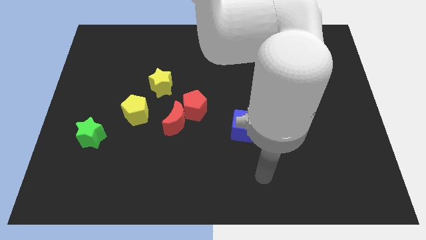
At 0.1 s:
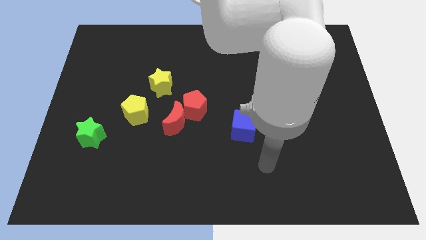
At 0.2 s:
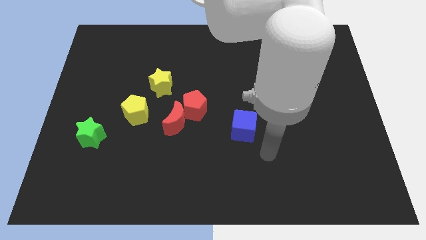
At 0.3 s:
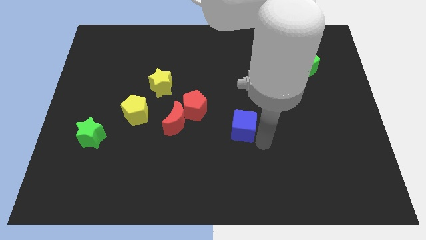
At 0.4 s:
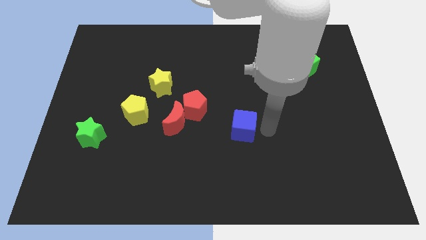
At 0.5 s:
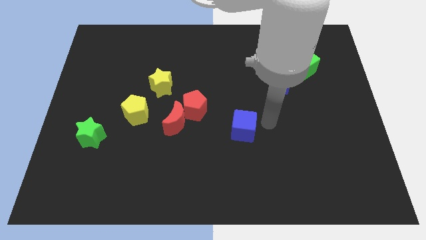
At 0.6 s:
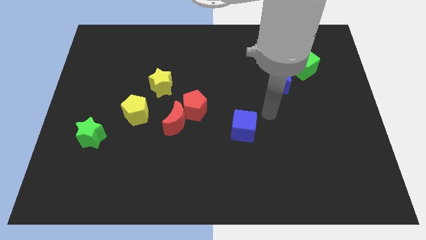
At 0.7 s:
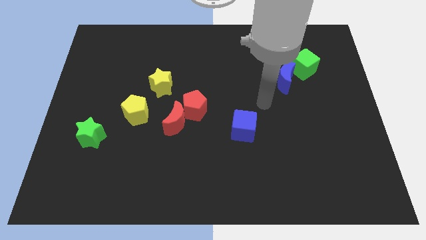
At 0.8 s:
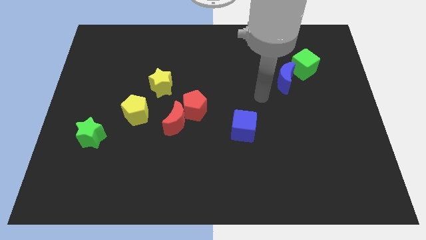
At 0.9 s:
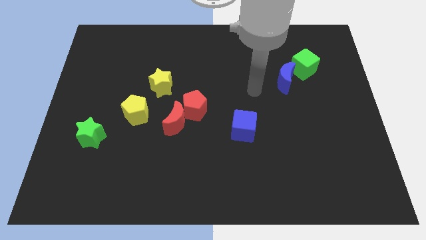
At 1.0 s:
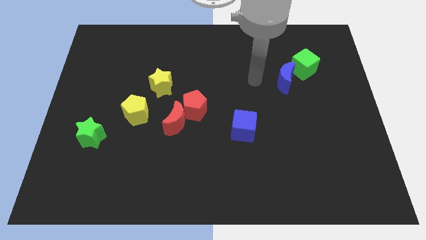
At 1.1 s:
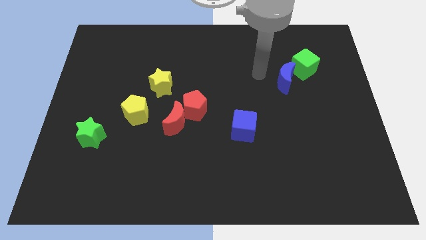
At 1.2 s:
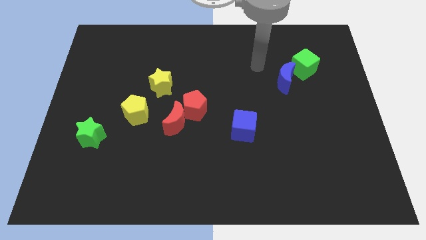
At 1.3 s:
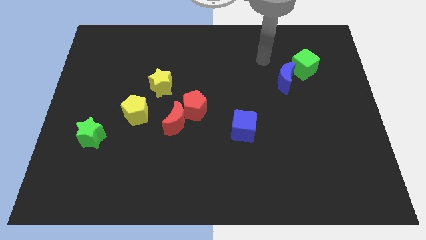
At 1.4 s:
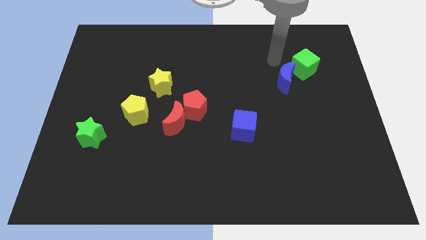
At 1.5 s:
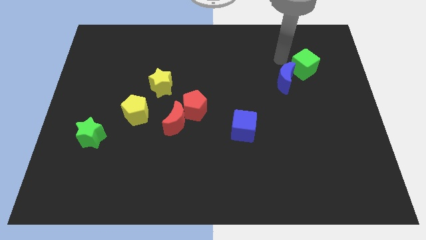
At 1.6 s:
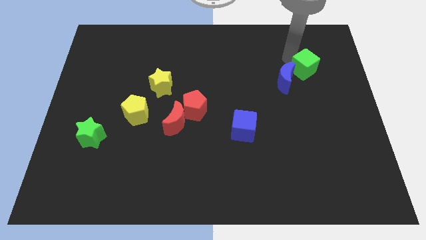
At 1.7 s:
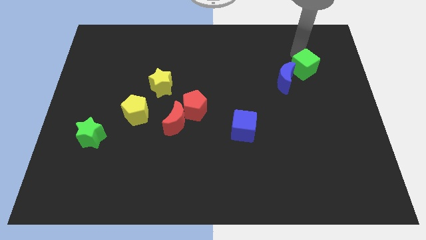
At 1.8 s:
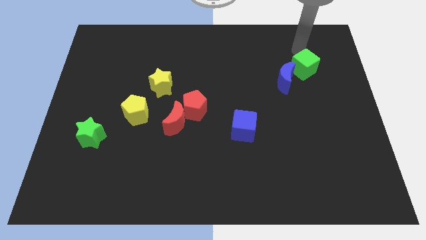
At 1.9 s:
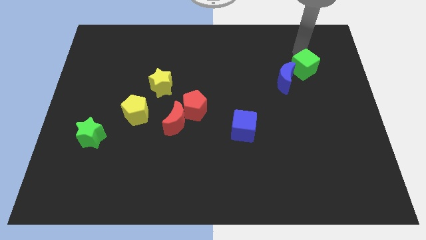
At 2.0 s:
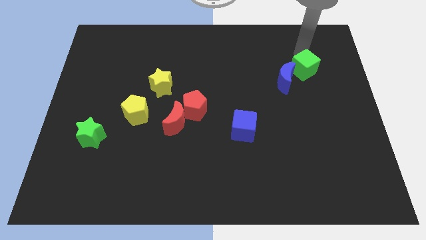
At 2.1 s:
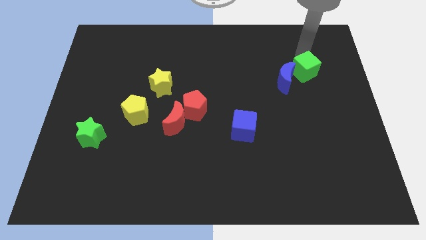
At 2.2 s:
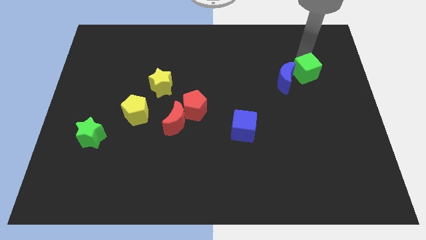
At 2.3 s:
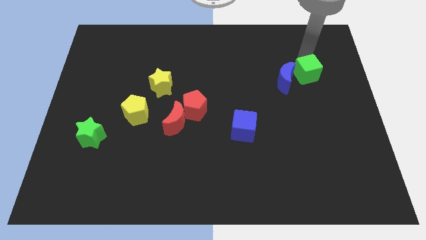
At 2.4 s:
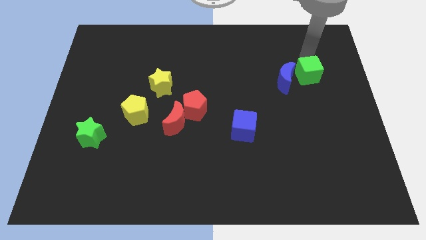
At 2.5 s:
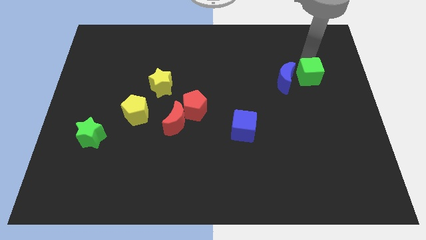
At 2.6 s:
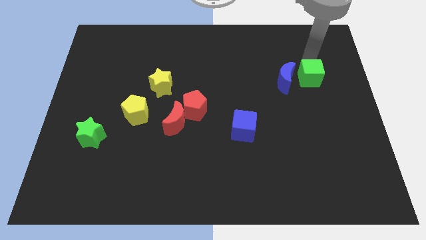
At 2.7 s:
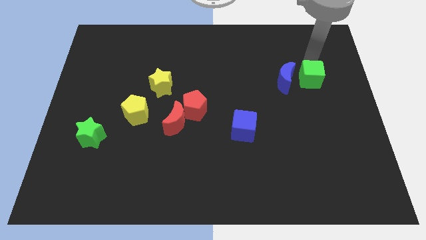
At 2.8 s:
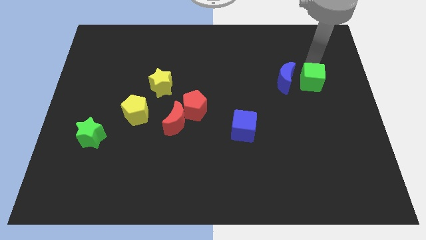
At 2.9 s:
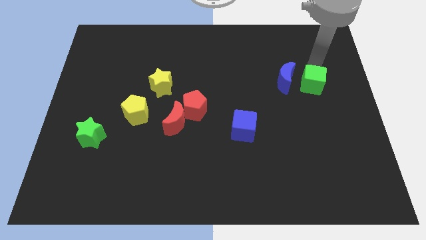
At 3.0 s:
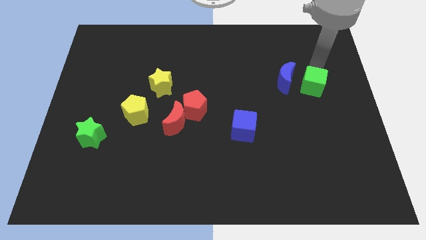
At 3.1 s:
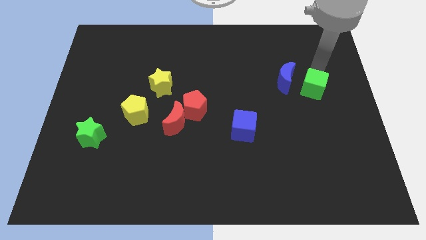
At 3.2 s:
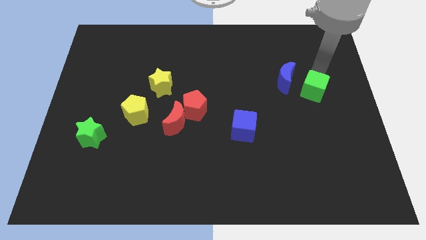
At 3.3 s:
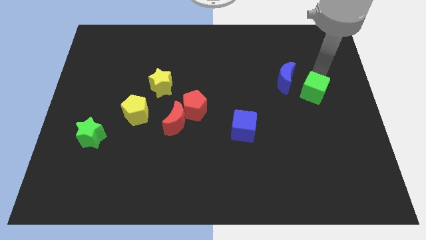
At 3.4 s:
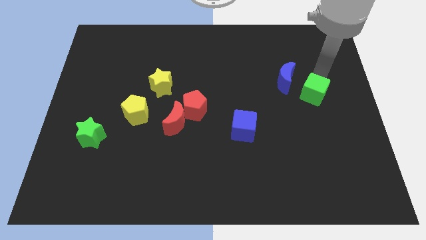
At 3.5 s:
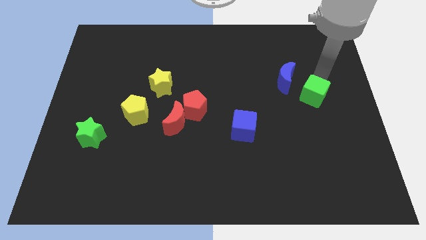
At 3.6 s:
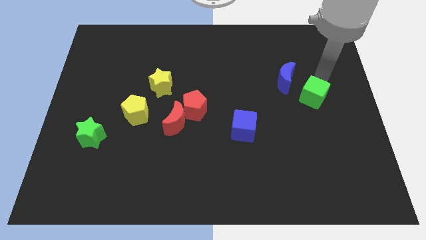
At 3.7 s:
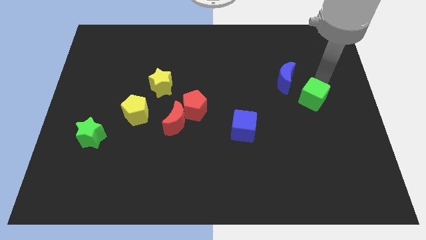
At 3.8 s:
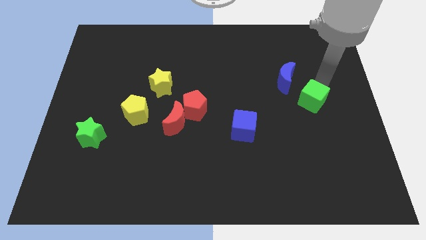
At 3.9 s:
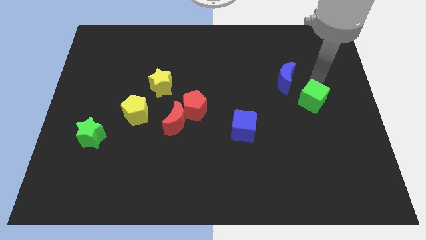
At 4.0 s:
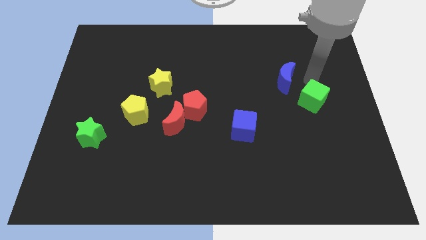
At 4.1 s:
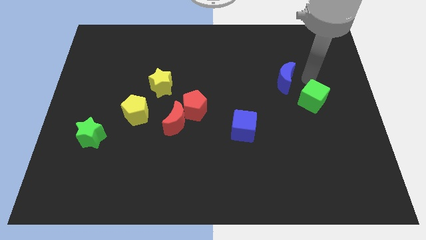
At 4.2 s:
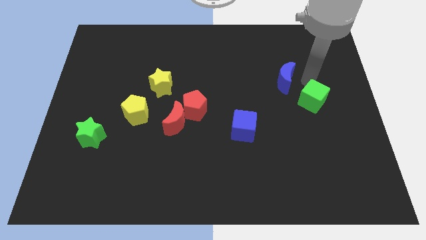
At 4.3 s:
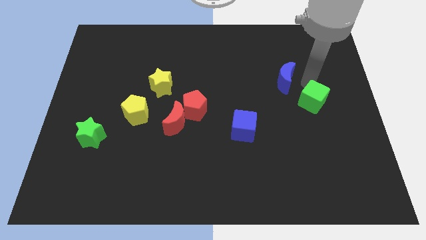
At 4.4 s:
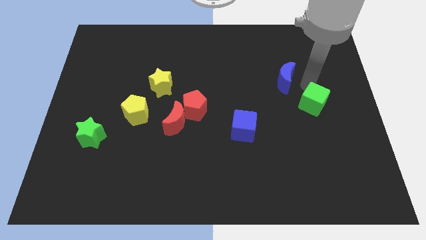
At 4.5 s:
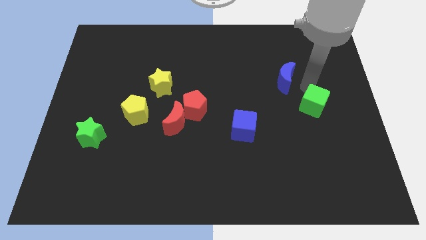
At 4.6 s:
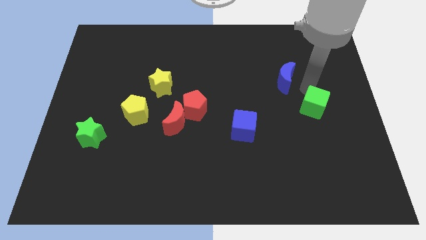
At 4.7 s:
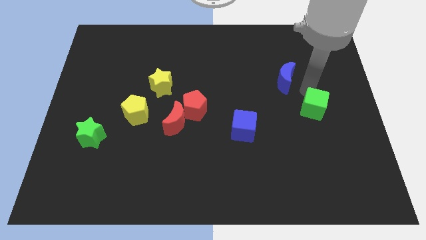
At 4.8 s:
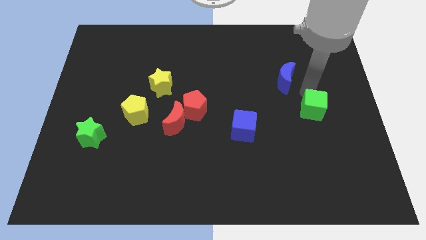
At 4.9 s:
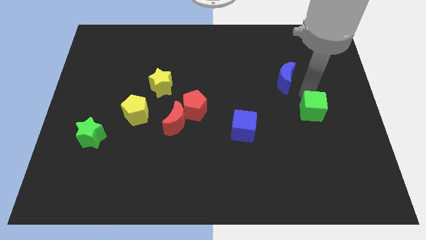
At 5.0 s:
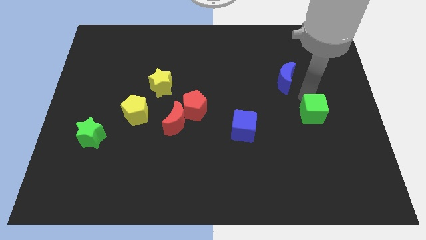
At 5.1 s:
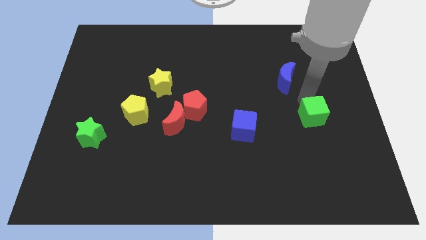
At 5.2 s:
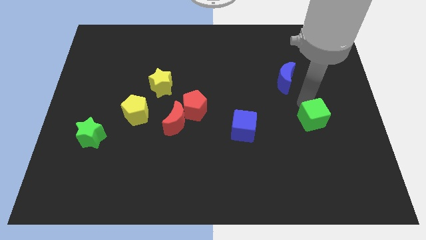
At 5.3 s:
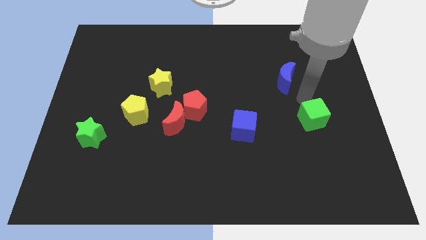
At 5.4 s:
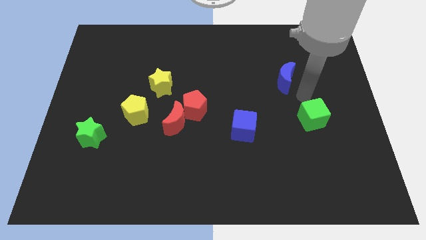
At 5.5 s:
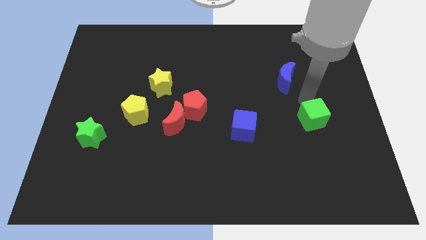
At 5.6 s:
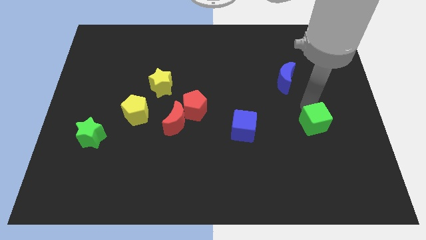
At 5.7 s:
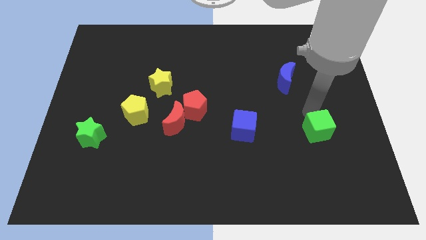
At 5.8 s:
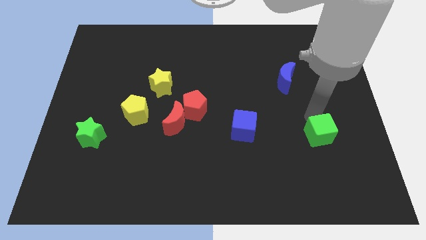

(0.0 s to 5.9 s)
move the green cube downwards

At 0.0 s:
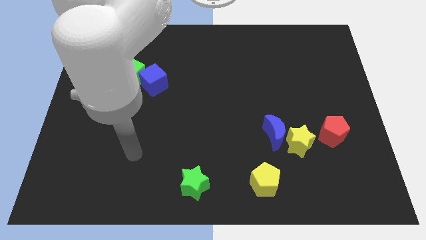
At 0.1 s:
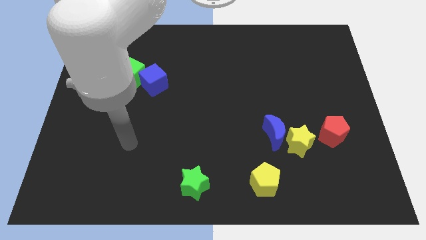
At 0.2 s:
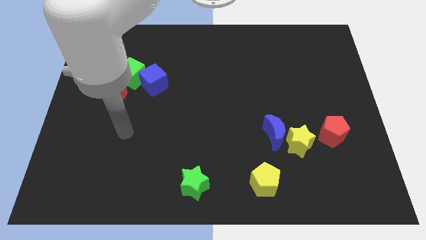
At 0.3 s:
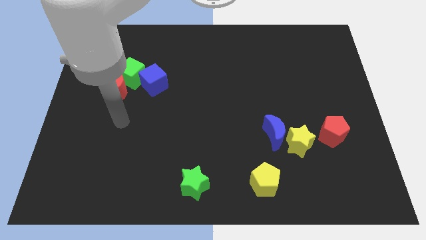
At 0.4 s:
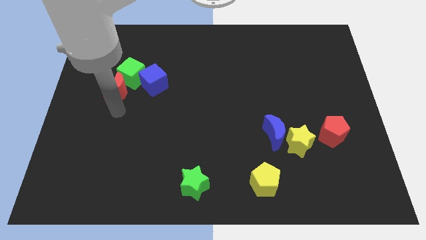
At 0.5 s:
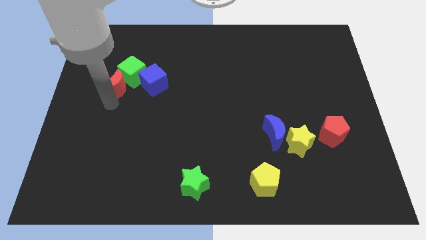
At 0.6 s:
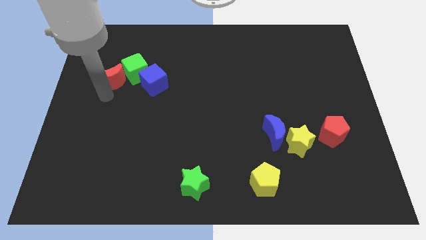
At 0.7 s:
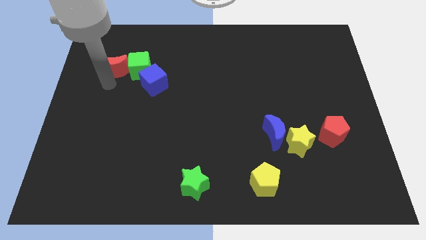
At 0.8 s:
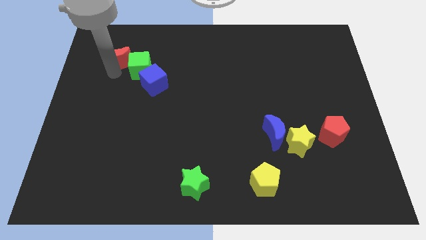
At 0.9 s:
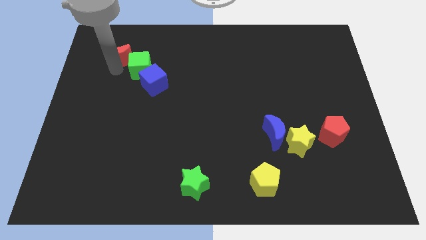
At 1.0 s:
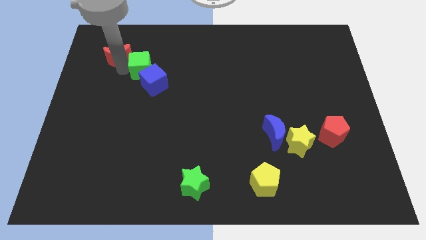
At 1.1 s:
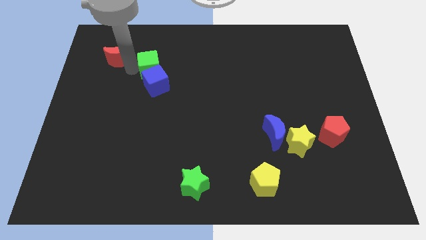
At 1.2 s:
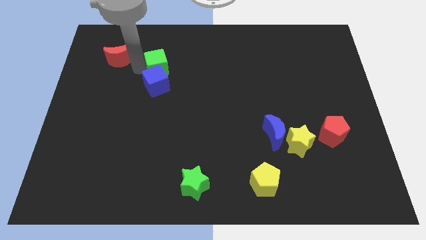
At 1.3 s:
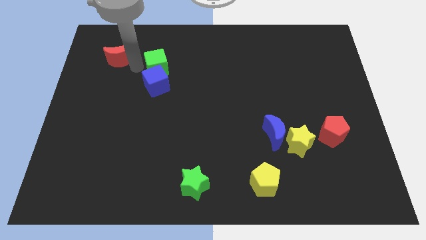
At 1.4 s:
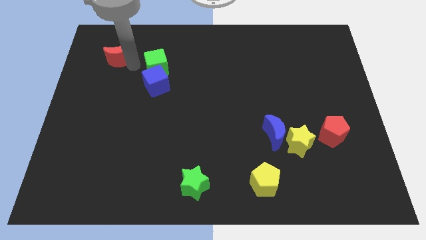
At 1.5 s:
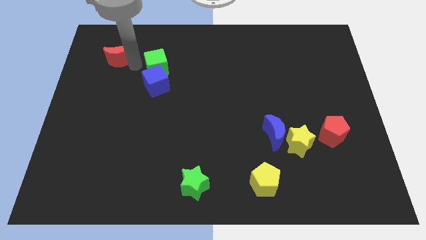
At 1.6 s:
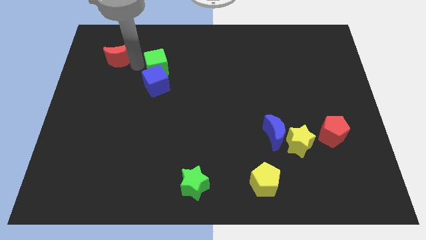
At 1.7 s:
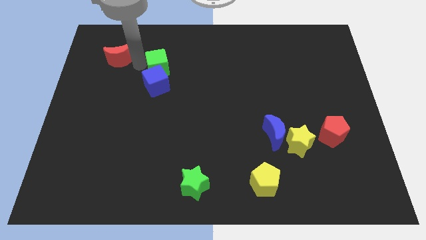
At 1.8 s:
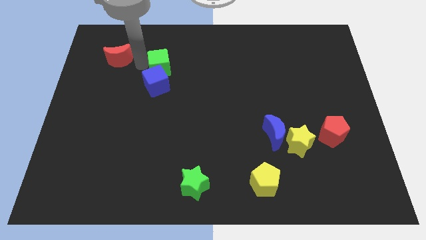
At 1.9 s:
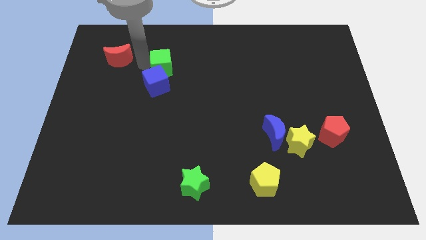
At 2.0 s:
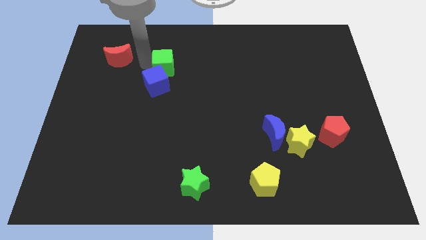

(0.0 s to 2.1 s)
slide the green cube right a little
